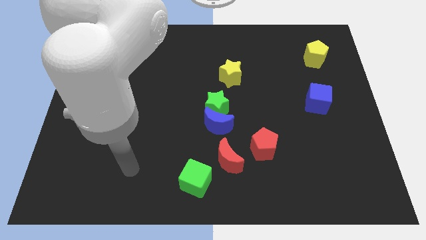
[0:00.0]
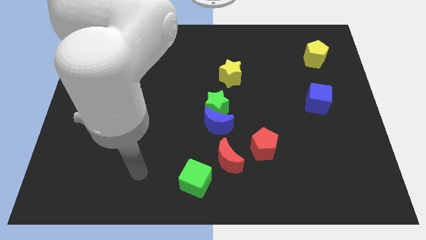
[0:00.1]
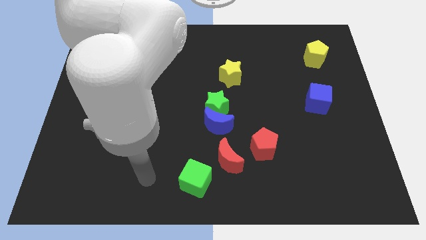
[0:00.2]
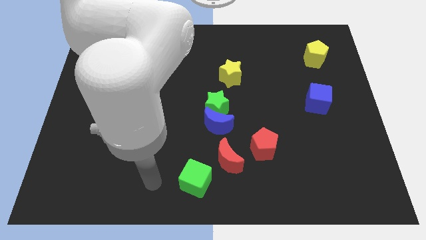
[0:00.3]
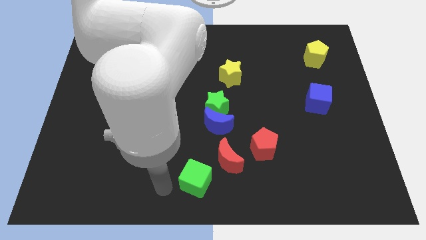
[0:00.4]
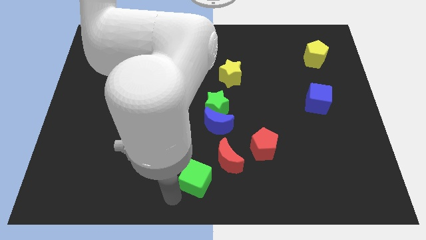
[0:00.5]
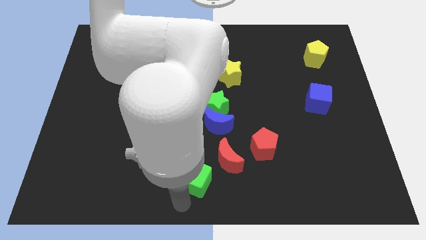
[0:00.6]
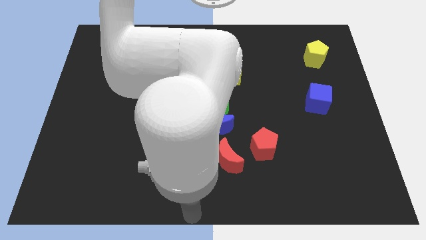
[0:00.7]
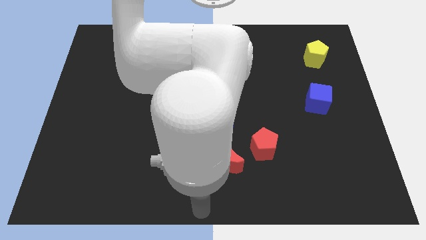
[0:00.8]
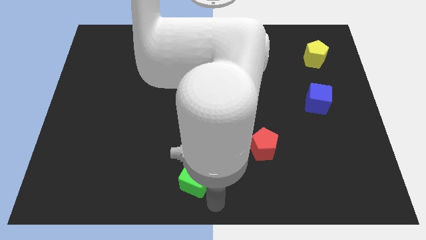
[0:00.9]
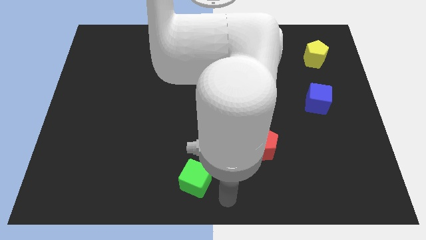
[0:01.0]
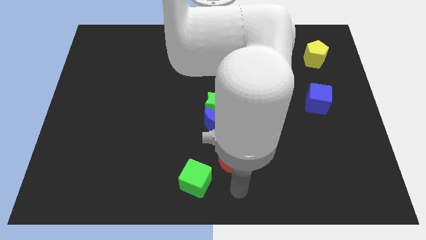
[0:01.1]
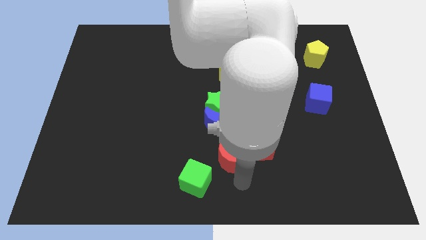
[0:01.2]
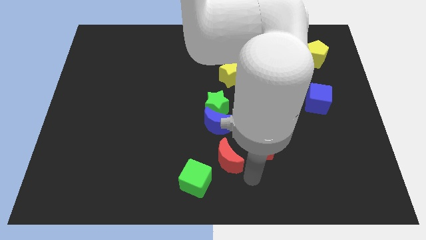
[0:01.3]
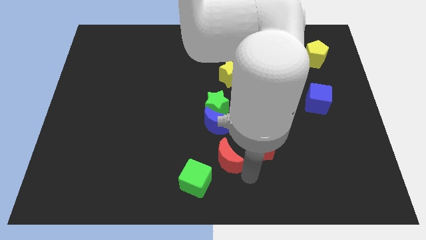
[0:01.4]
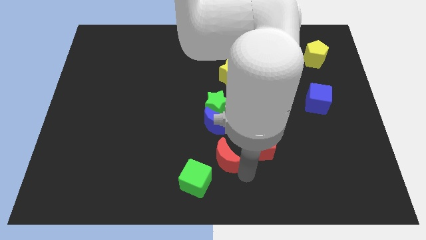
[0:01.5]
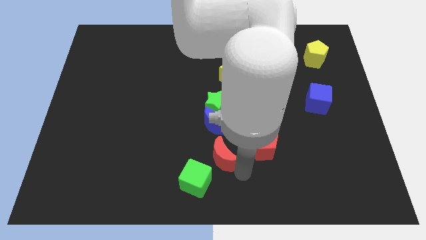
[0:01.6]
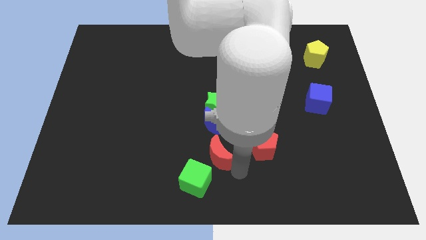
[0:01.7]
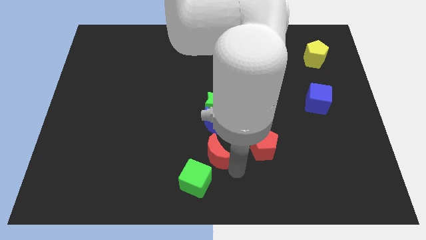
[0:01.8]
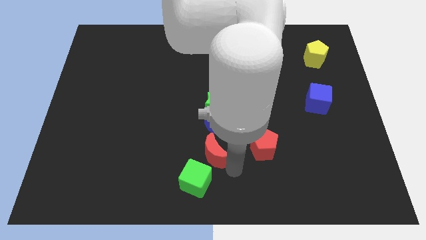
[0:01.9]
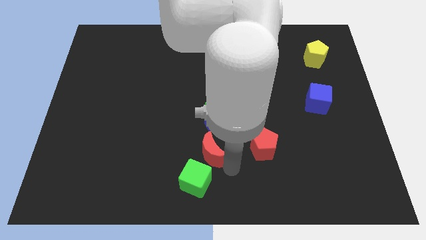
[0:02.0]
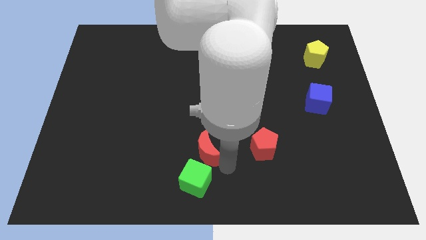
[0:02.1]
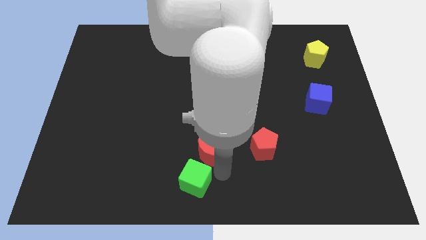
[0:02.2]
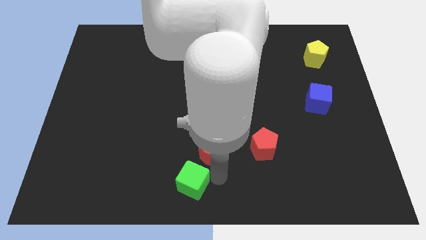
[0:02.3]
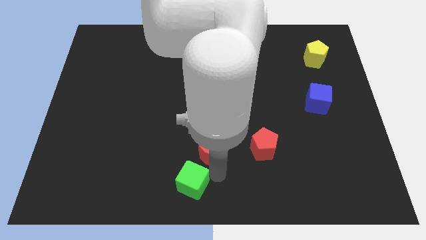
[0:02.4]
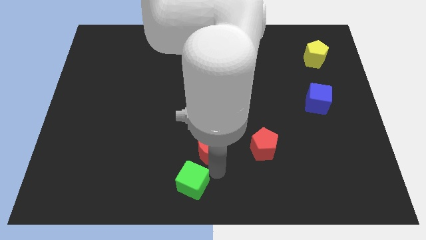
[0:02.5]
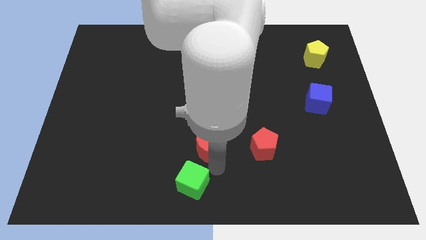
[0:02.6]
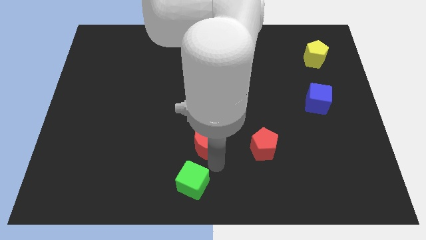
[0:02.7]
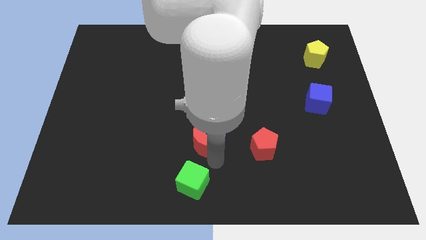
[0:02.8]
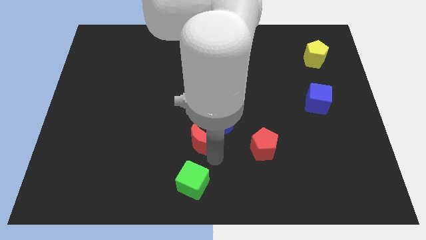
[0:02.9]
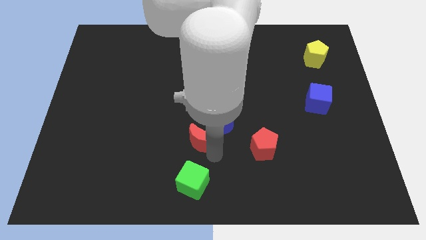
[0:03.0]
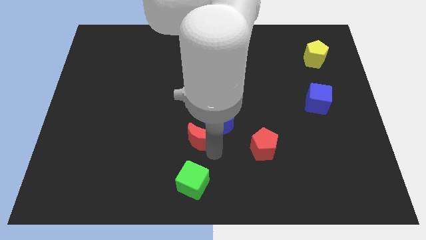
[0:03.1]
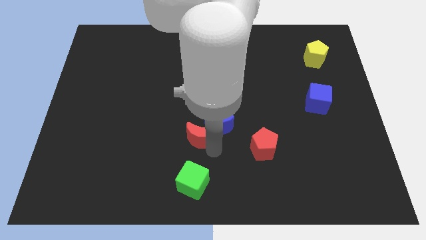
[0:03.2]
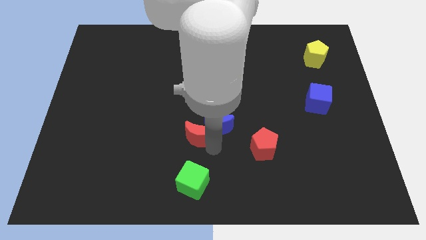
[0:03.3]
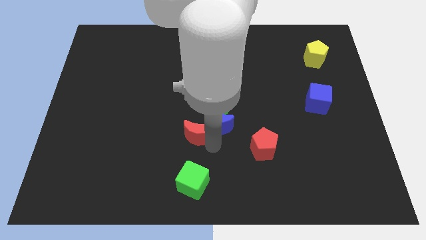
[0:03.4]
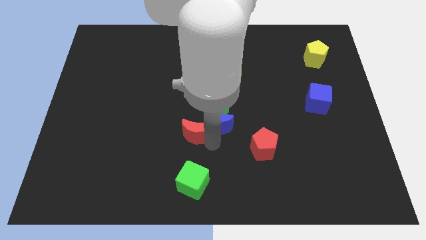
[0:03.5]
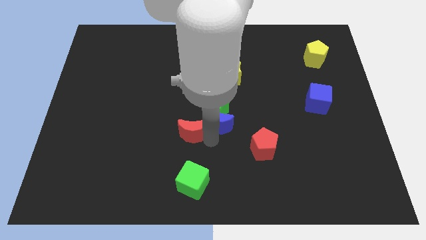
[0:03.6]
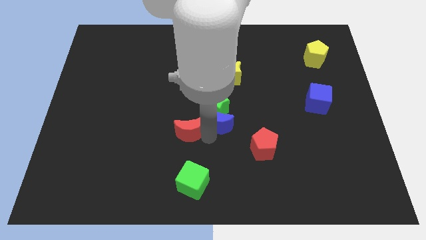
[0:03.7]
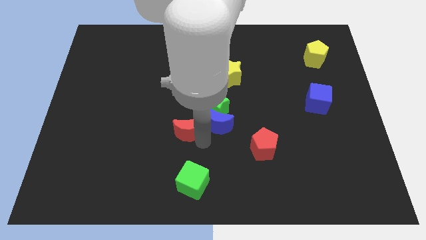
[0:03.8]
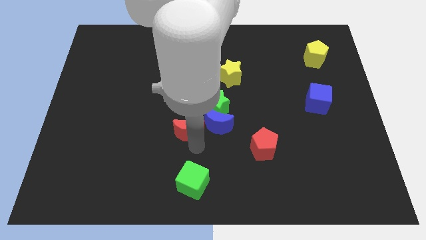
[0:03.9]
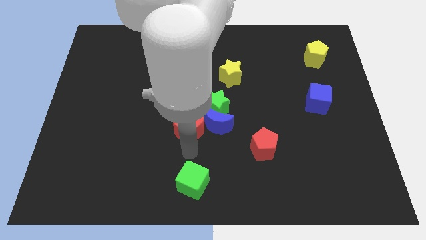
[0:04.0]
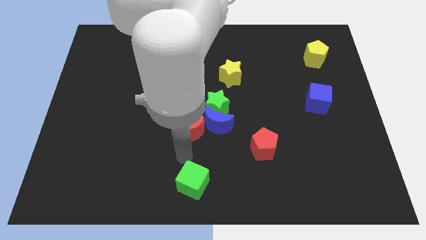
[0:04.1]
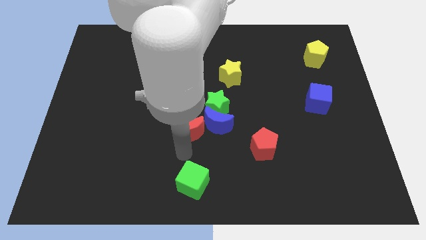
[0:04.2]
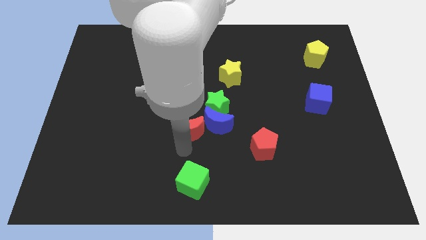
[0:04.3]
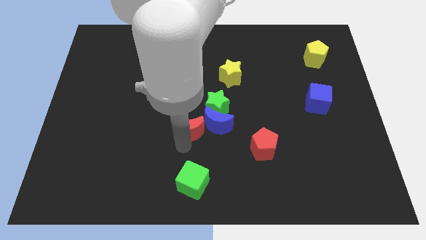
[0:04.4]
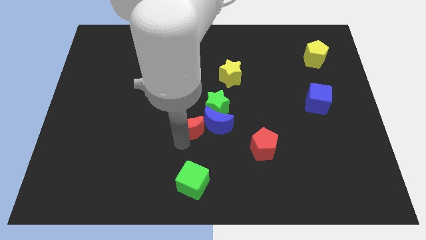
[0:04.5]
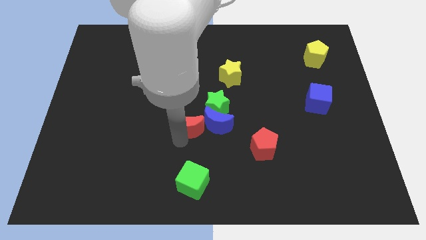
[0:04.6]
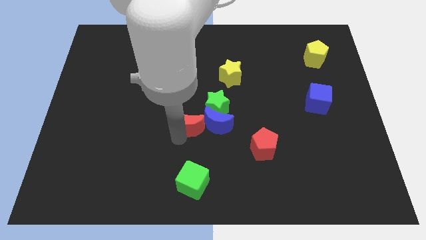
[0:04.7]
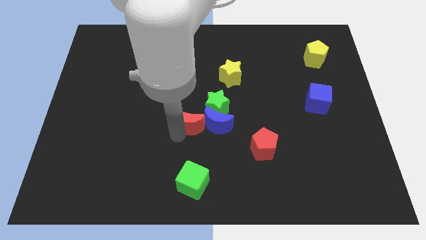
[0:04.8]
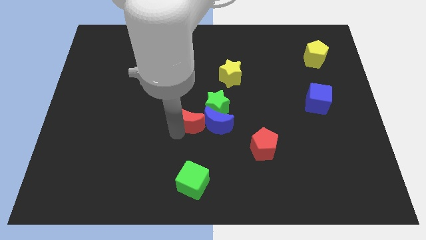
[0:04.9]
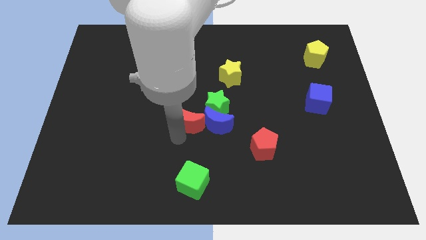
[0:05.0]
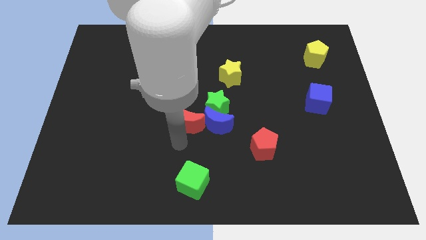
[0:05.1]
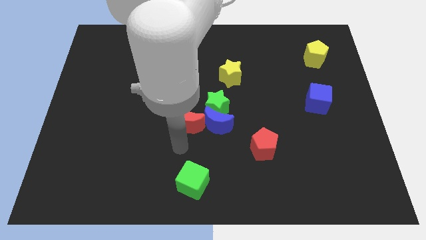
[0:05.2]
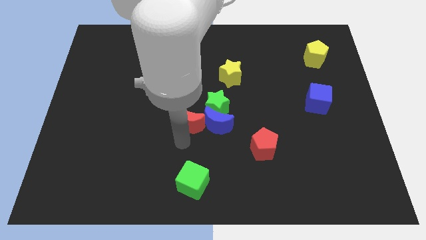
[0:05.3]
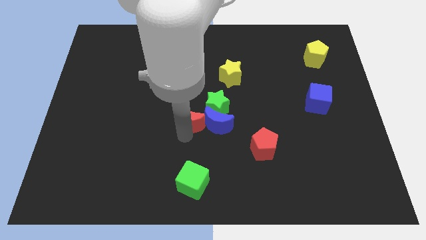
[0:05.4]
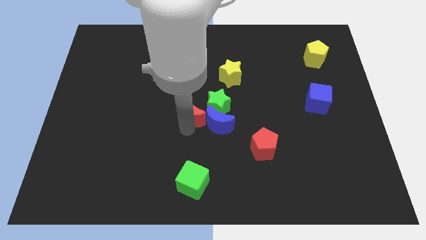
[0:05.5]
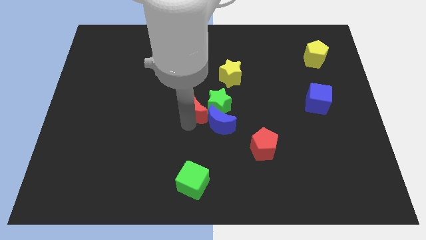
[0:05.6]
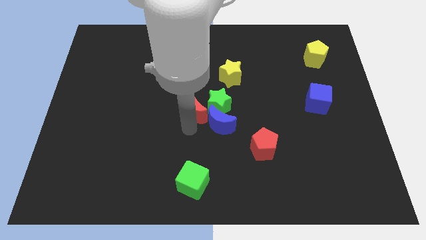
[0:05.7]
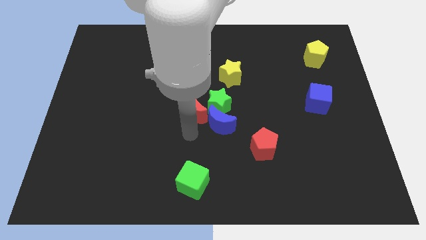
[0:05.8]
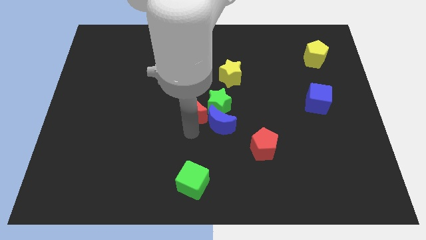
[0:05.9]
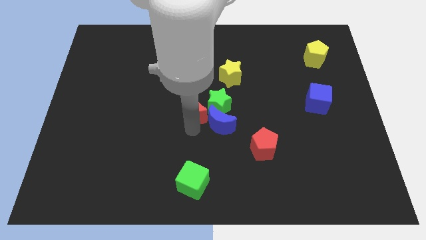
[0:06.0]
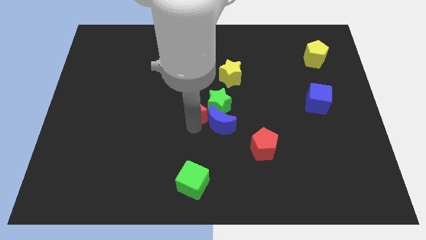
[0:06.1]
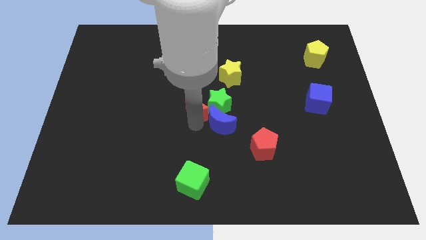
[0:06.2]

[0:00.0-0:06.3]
move the red moon to the top left of the green star

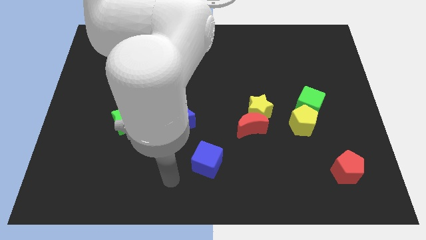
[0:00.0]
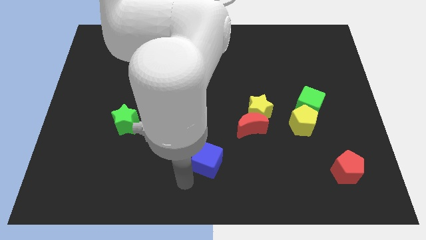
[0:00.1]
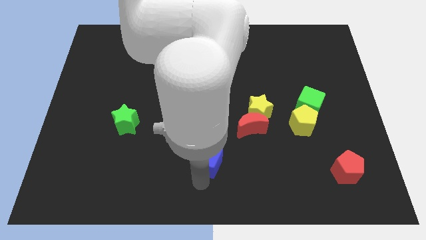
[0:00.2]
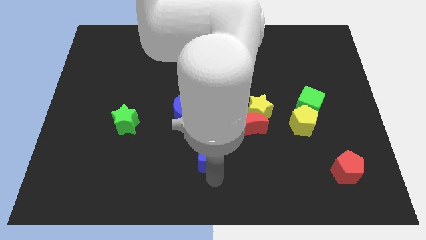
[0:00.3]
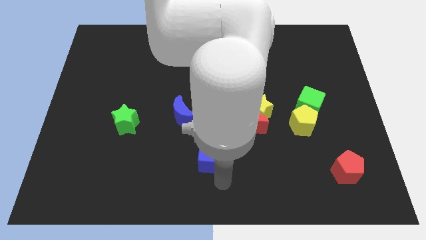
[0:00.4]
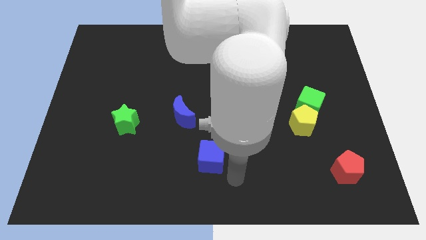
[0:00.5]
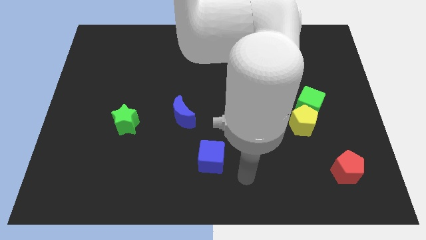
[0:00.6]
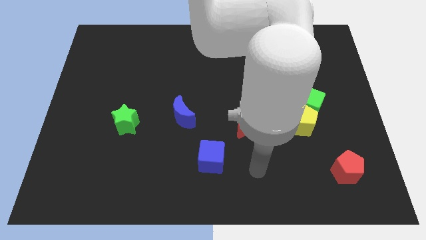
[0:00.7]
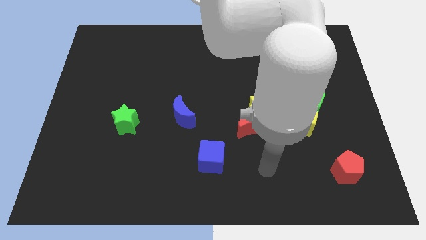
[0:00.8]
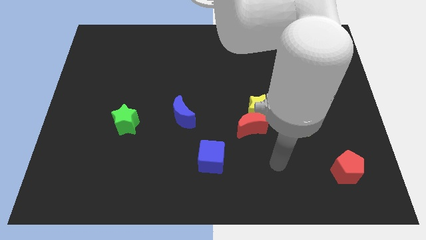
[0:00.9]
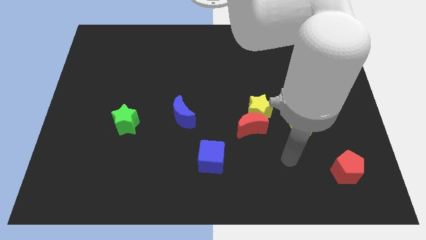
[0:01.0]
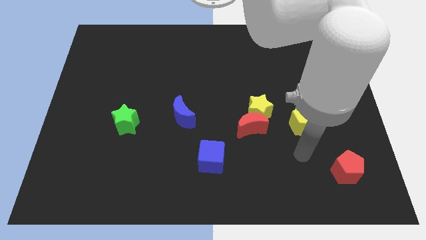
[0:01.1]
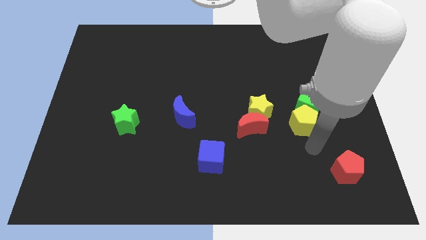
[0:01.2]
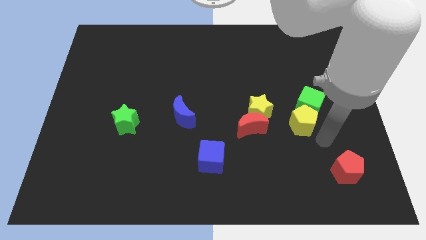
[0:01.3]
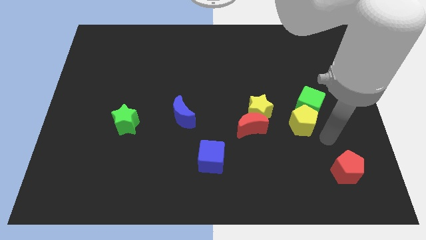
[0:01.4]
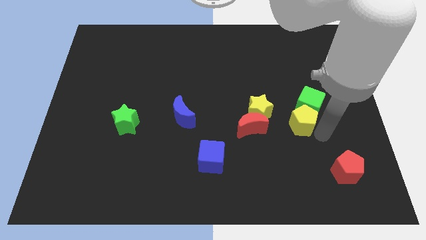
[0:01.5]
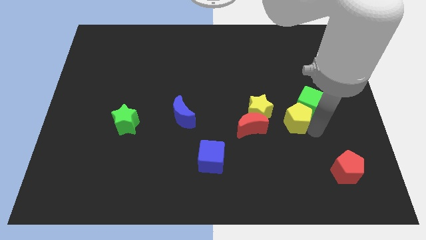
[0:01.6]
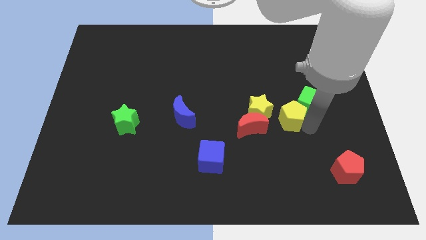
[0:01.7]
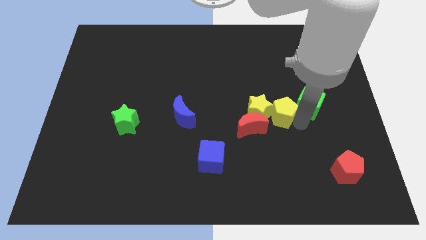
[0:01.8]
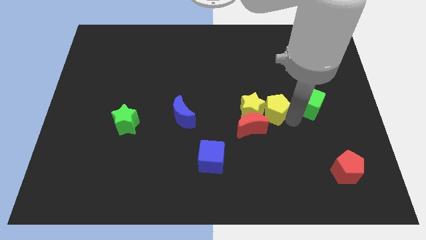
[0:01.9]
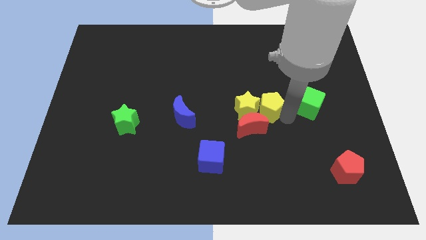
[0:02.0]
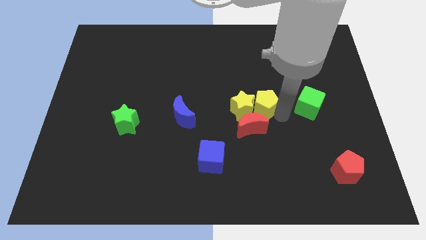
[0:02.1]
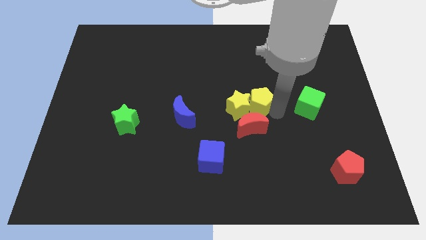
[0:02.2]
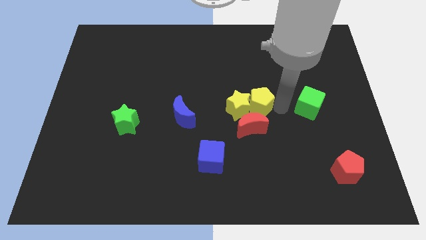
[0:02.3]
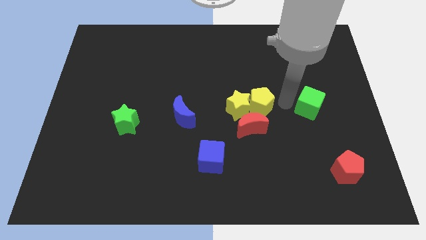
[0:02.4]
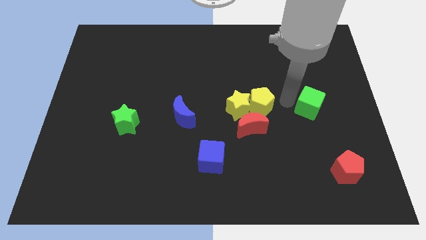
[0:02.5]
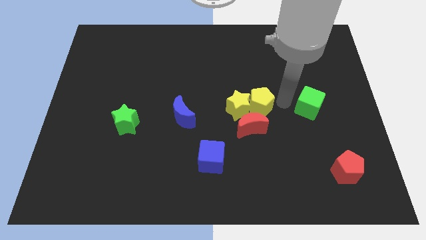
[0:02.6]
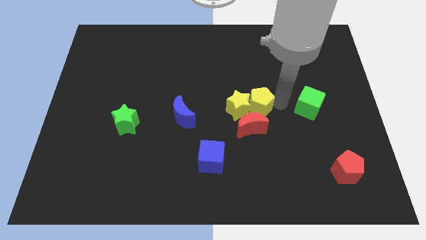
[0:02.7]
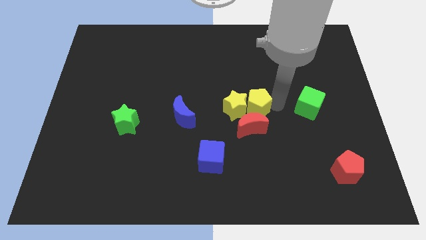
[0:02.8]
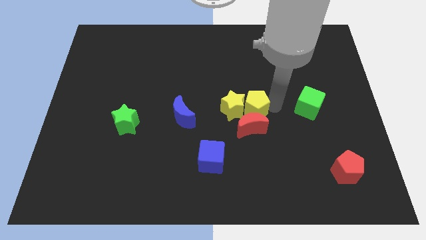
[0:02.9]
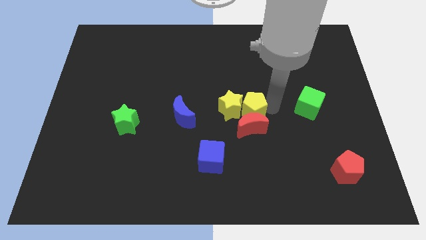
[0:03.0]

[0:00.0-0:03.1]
move the yellow pentagon diagonally up and to the left of the red moon
